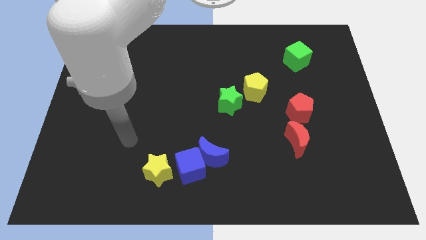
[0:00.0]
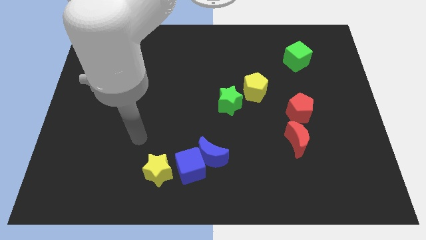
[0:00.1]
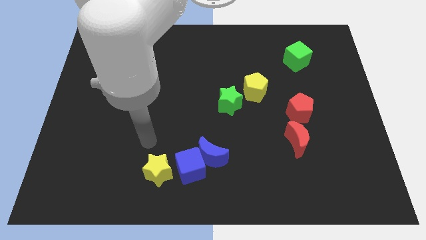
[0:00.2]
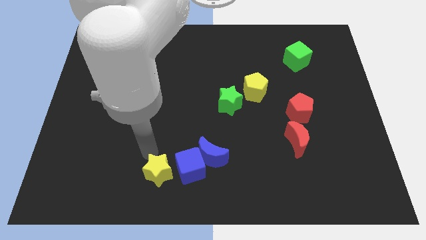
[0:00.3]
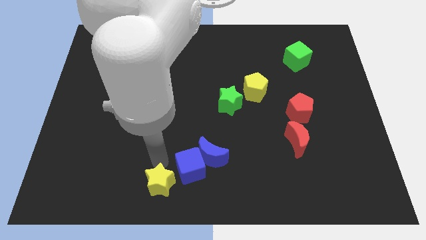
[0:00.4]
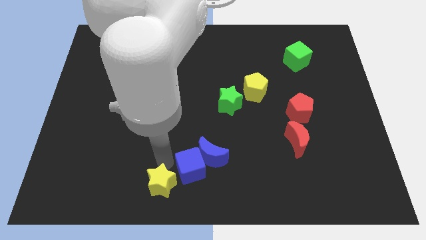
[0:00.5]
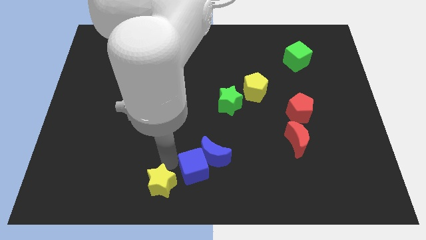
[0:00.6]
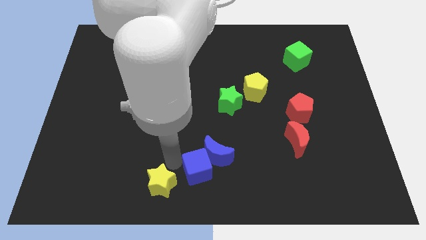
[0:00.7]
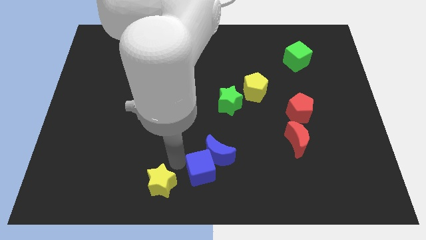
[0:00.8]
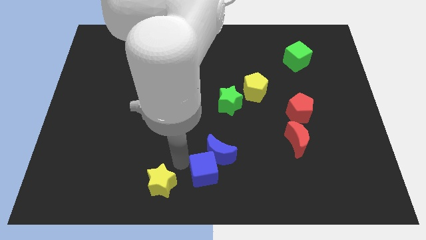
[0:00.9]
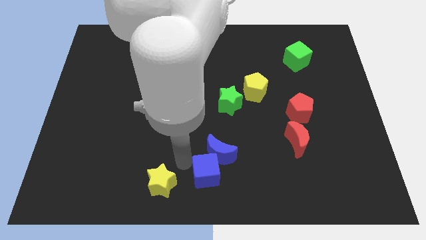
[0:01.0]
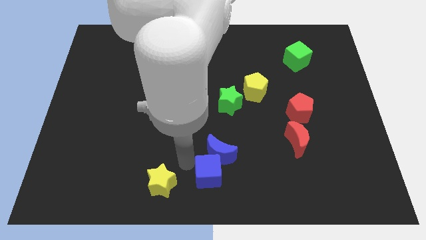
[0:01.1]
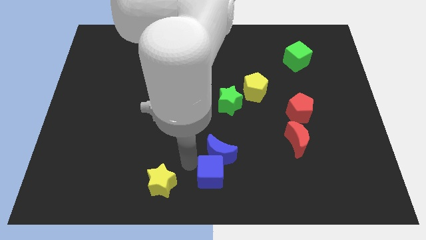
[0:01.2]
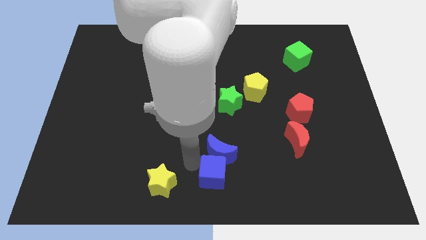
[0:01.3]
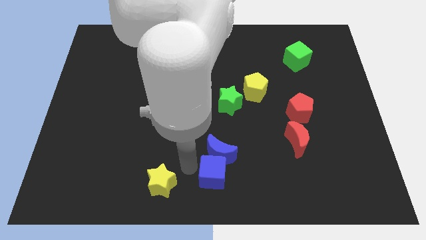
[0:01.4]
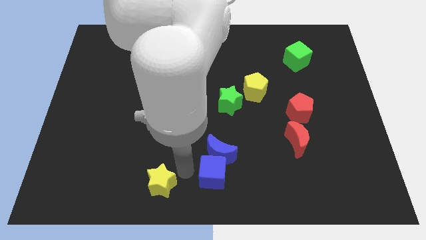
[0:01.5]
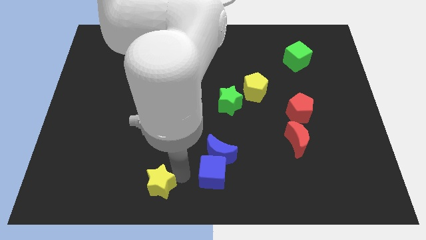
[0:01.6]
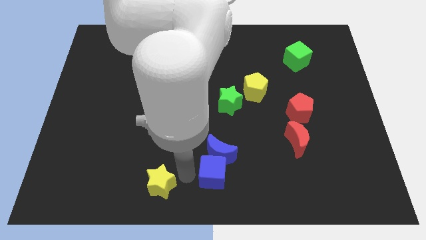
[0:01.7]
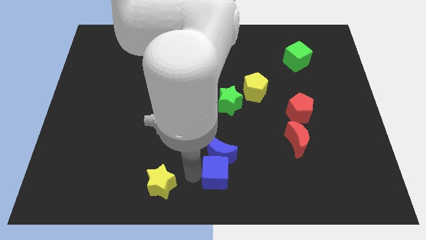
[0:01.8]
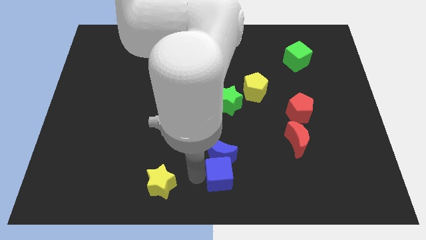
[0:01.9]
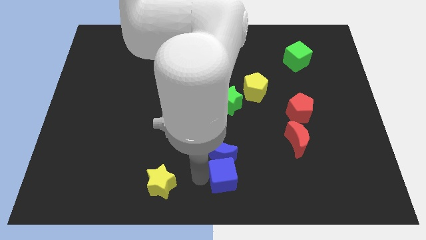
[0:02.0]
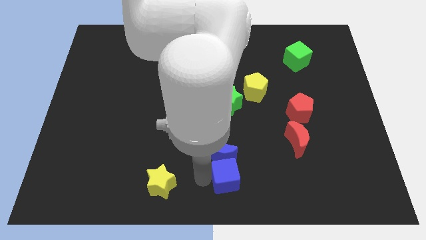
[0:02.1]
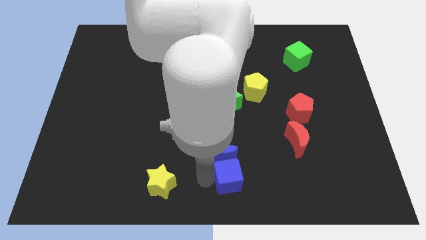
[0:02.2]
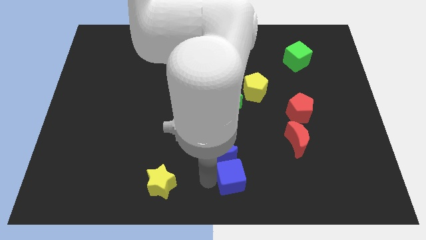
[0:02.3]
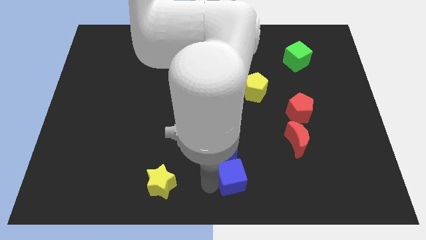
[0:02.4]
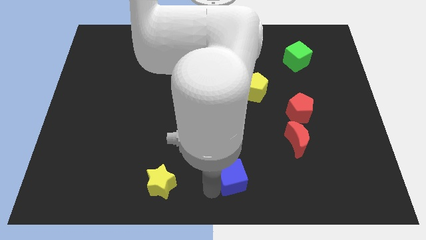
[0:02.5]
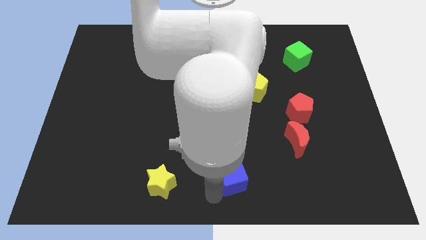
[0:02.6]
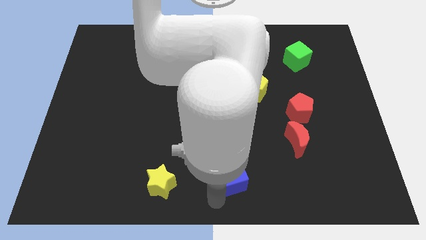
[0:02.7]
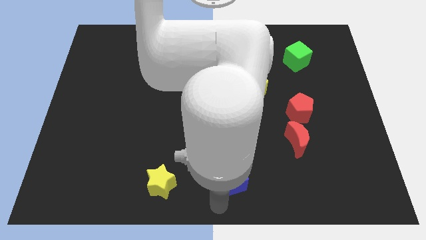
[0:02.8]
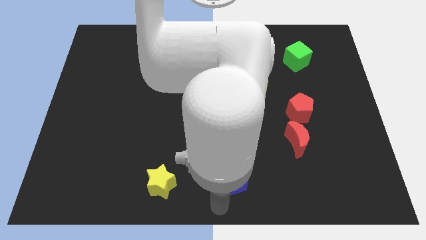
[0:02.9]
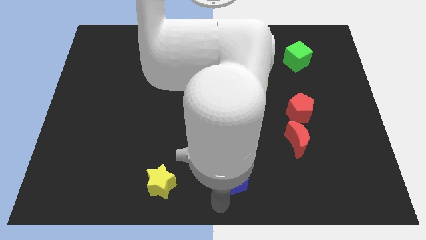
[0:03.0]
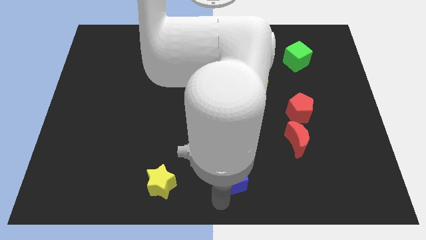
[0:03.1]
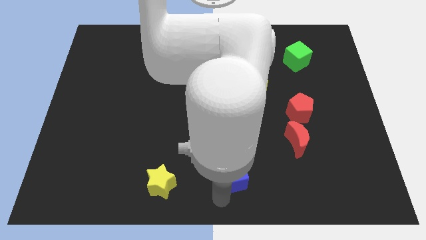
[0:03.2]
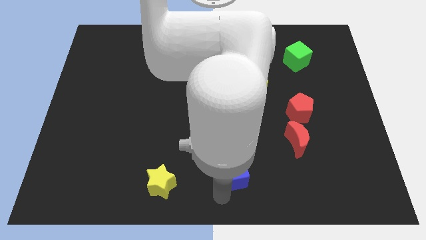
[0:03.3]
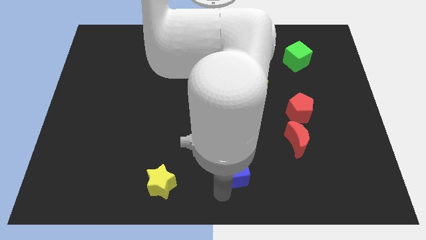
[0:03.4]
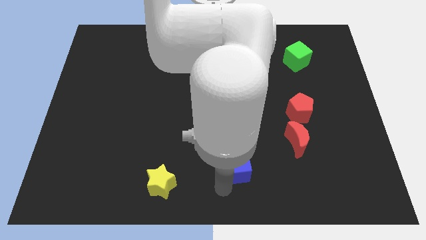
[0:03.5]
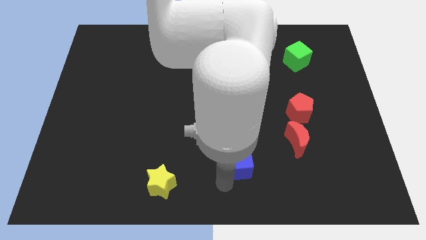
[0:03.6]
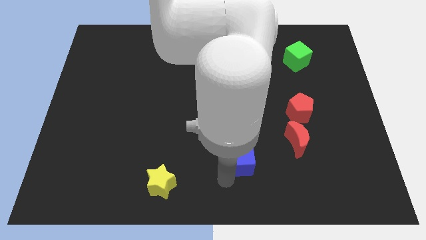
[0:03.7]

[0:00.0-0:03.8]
slide the blue cube a little bit up and to the right diagonally

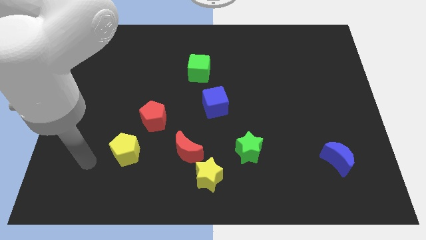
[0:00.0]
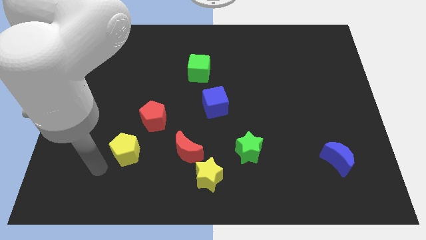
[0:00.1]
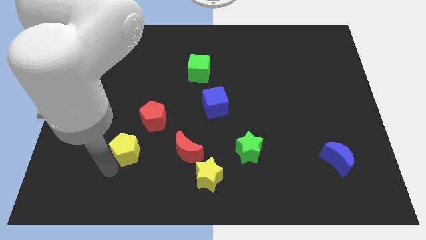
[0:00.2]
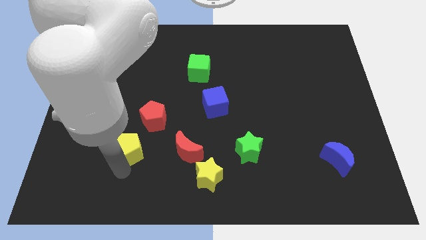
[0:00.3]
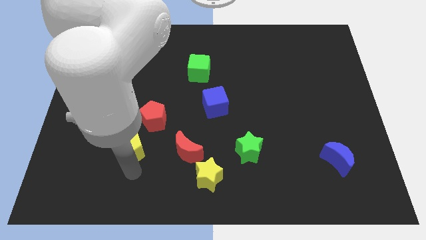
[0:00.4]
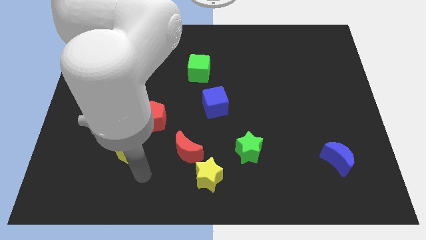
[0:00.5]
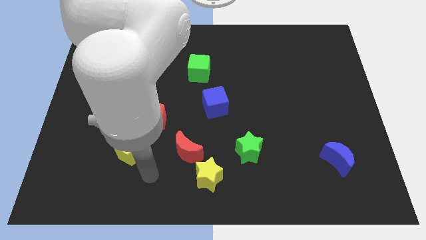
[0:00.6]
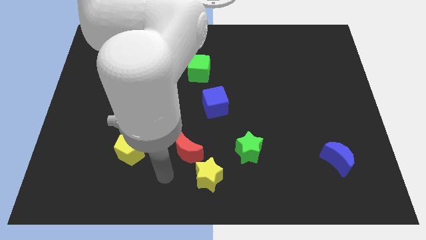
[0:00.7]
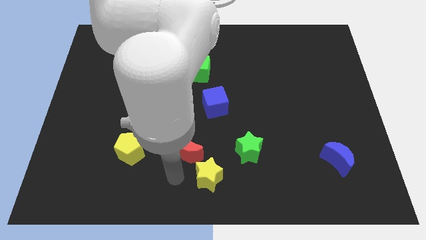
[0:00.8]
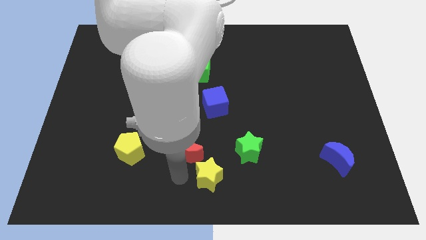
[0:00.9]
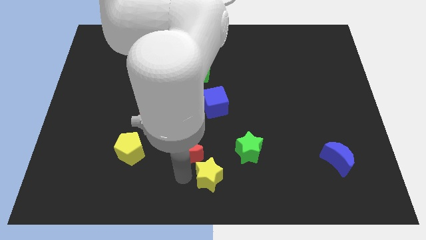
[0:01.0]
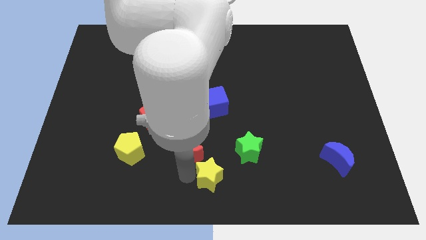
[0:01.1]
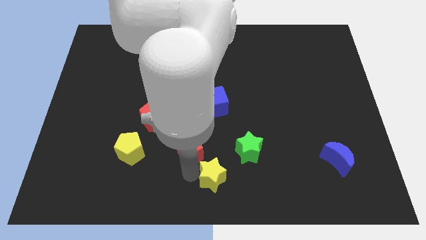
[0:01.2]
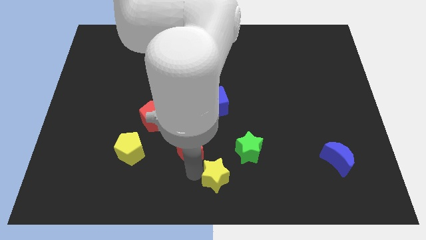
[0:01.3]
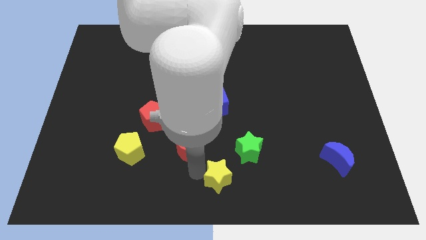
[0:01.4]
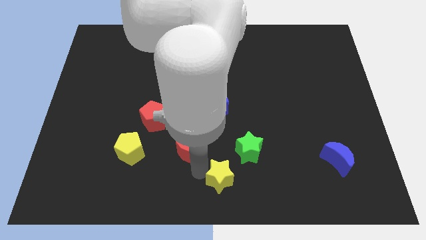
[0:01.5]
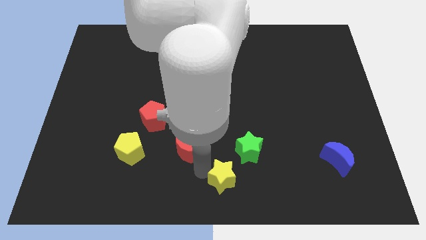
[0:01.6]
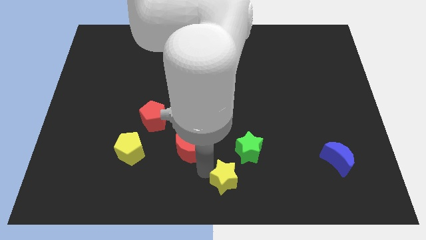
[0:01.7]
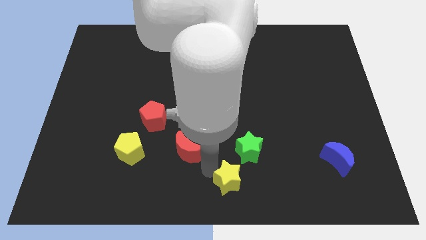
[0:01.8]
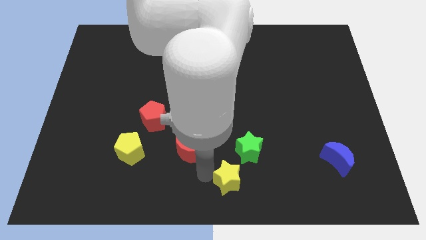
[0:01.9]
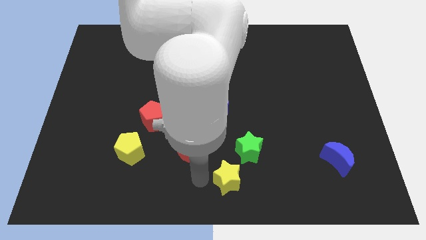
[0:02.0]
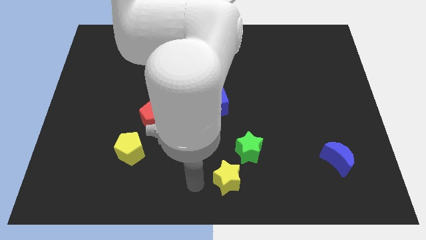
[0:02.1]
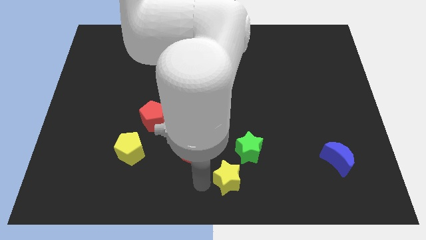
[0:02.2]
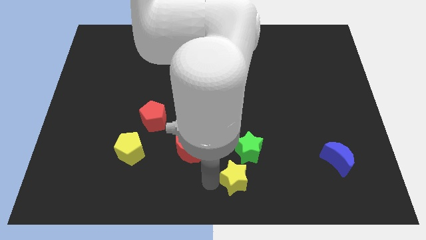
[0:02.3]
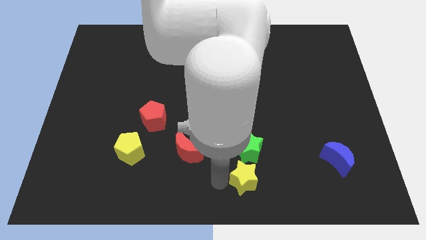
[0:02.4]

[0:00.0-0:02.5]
push the yellow star a bit right

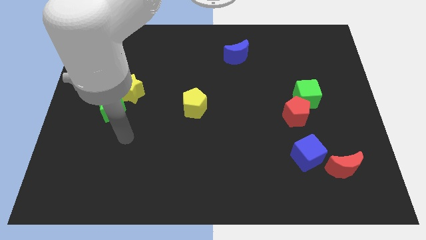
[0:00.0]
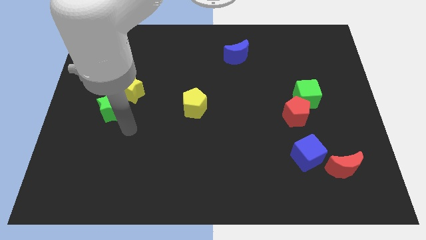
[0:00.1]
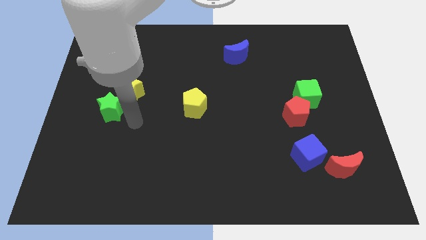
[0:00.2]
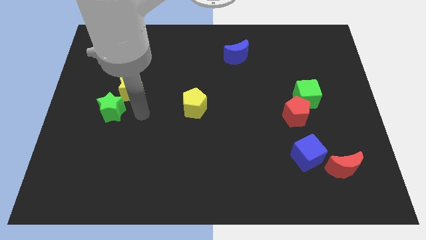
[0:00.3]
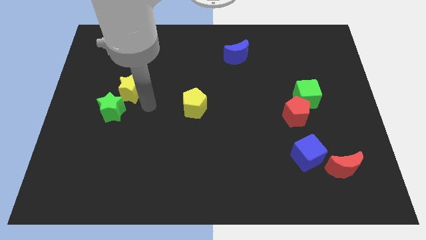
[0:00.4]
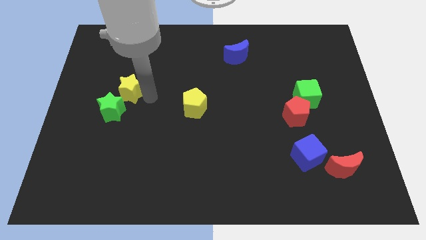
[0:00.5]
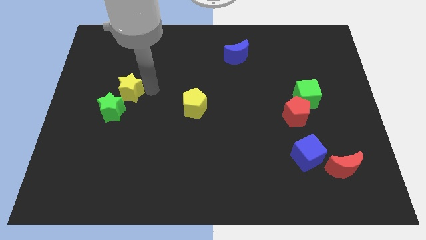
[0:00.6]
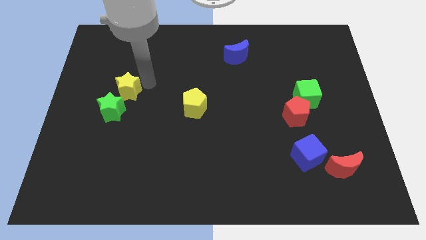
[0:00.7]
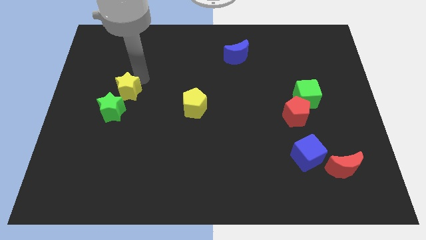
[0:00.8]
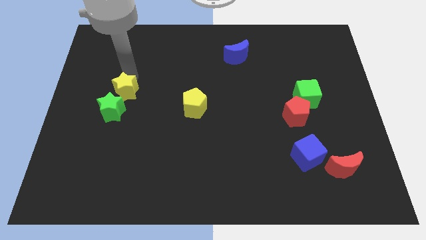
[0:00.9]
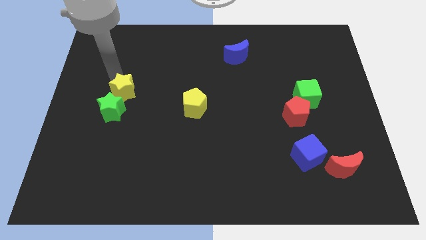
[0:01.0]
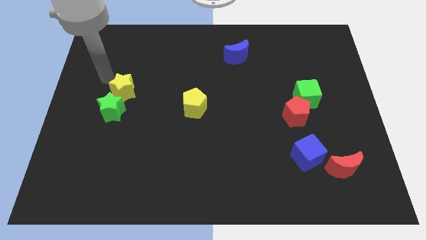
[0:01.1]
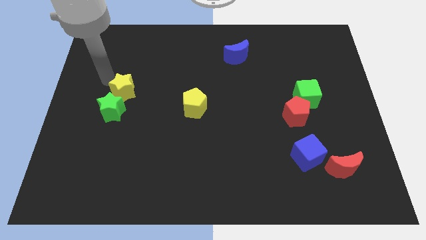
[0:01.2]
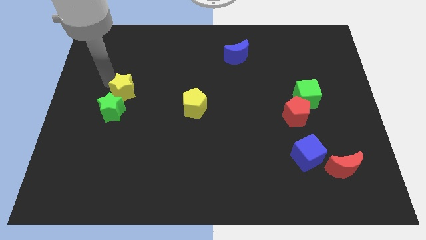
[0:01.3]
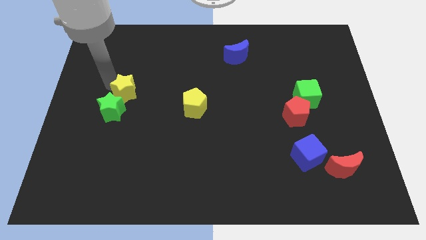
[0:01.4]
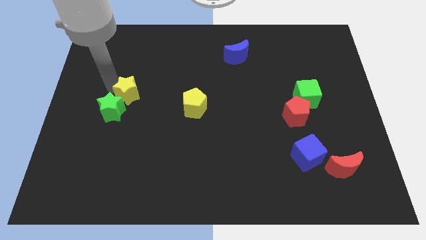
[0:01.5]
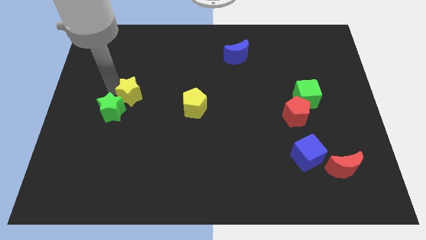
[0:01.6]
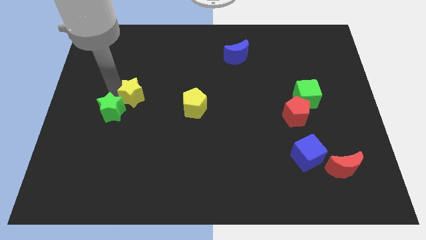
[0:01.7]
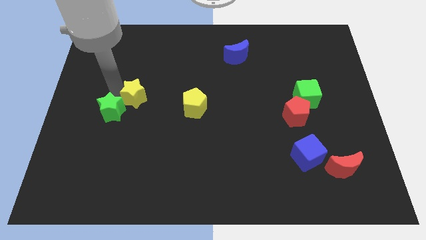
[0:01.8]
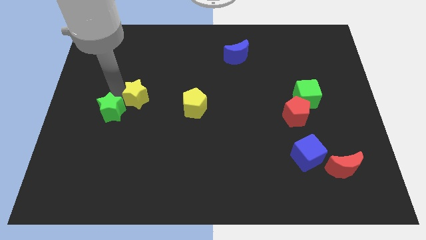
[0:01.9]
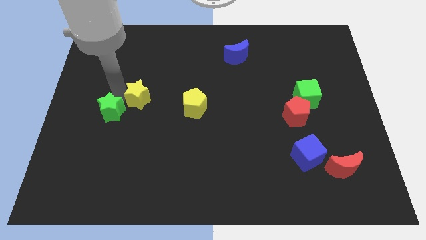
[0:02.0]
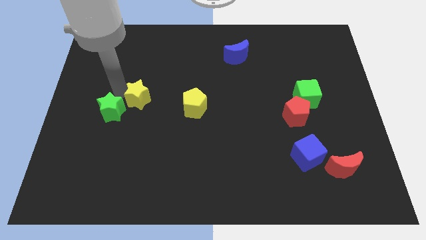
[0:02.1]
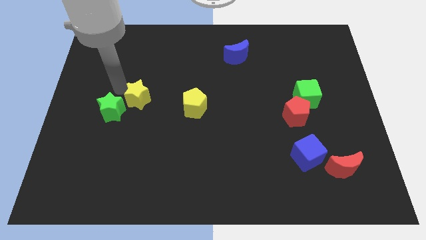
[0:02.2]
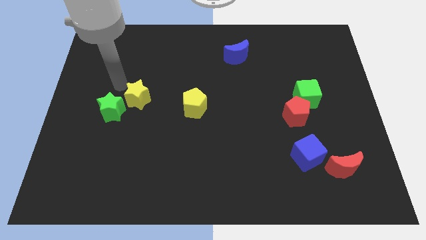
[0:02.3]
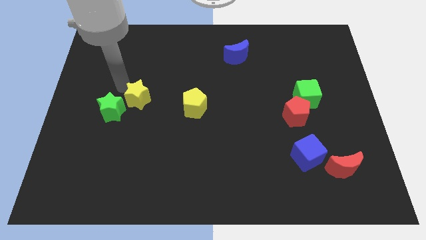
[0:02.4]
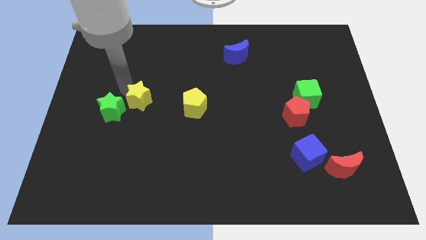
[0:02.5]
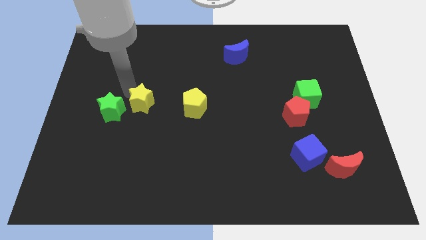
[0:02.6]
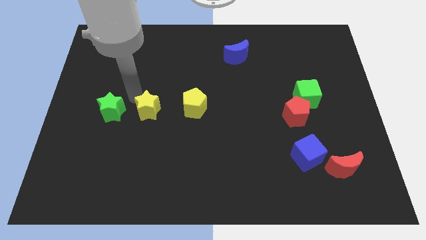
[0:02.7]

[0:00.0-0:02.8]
slightly move the yellow star down and then right
